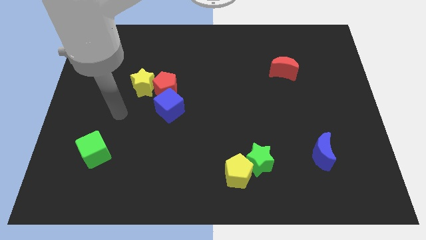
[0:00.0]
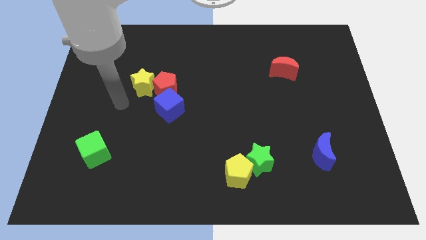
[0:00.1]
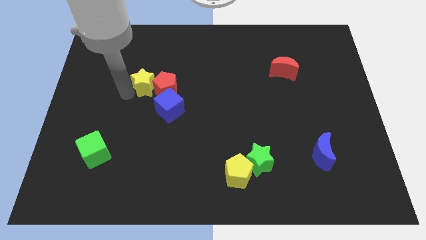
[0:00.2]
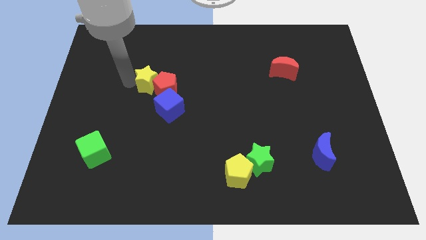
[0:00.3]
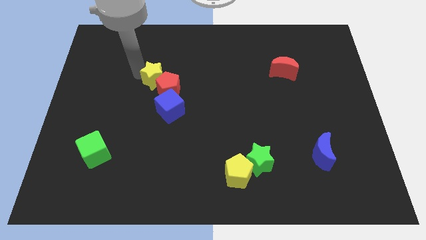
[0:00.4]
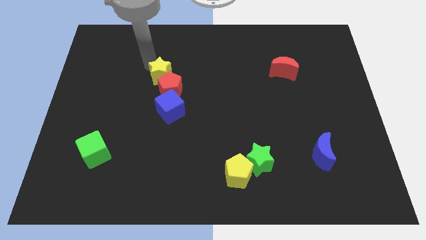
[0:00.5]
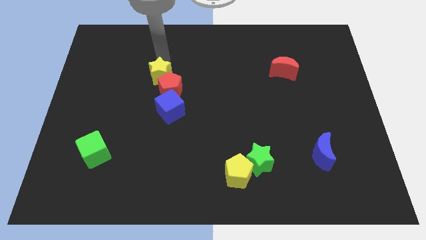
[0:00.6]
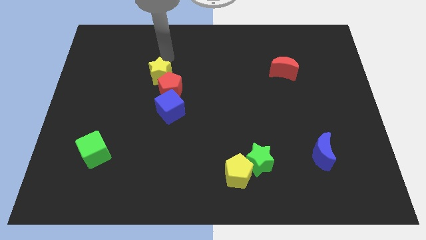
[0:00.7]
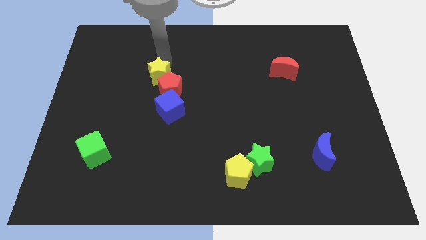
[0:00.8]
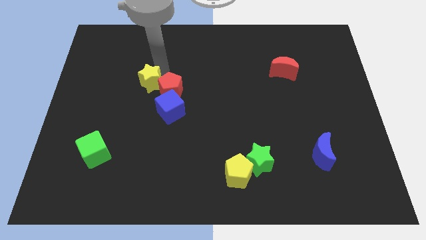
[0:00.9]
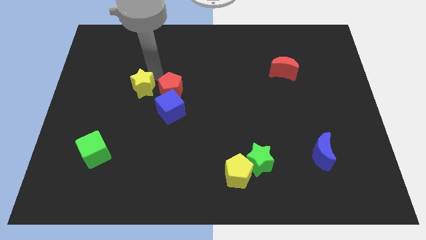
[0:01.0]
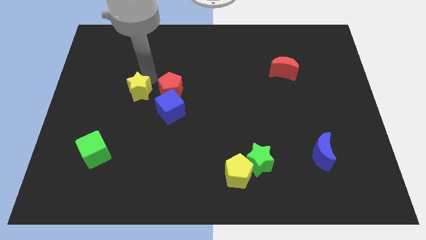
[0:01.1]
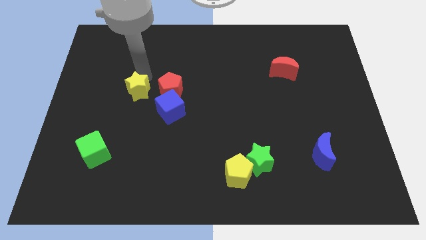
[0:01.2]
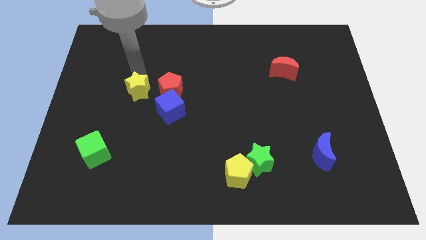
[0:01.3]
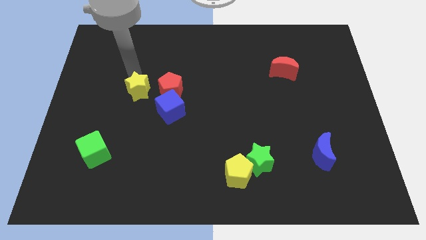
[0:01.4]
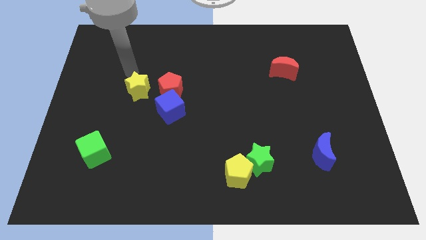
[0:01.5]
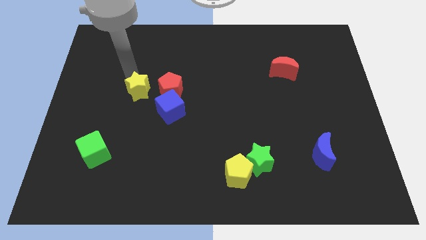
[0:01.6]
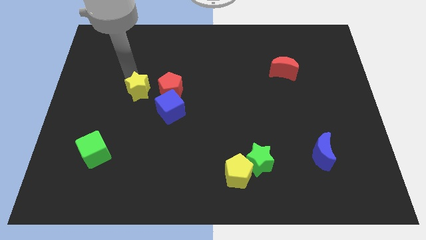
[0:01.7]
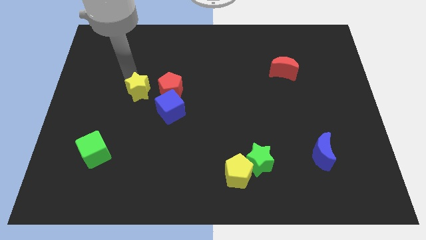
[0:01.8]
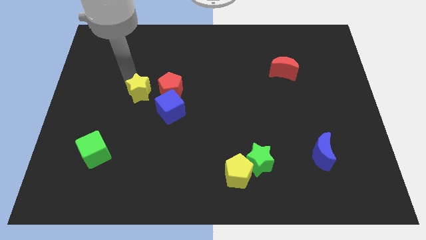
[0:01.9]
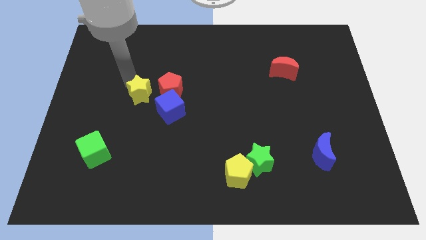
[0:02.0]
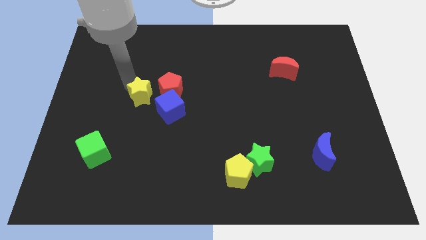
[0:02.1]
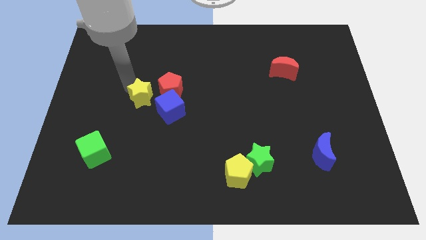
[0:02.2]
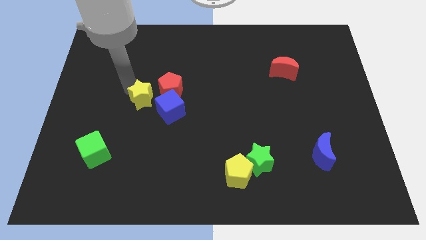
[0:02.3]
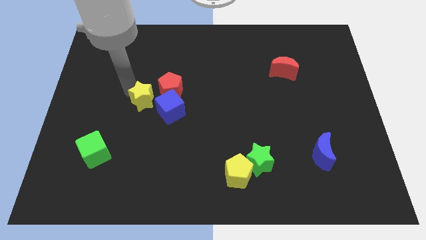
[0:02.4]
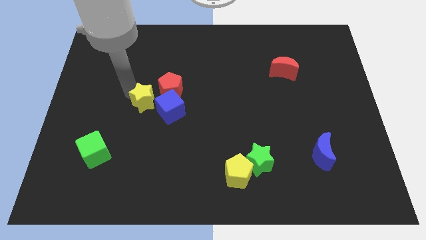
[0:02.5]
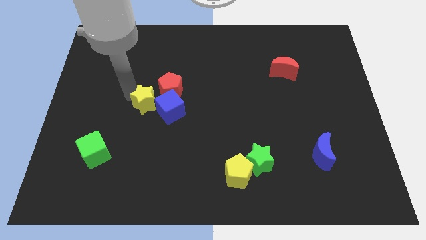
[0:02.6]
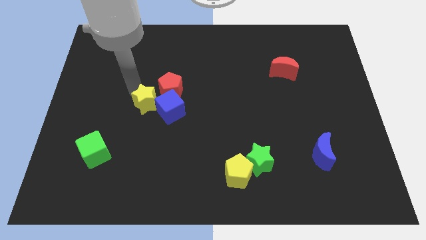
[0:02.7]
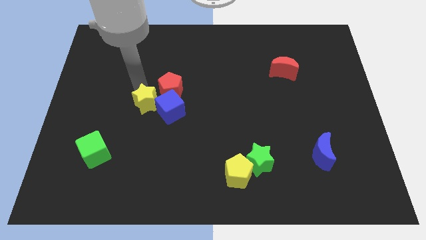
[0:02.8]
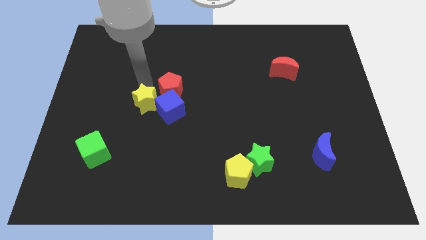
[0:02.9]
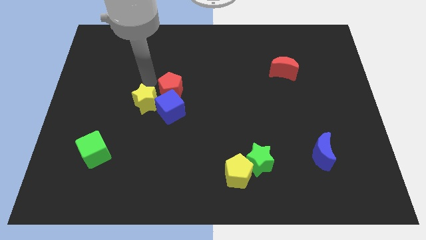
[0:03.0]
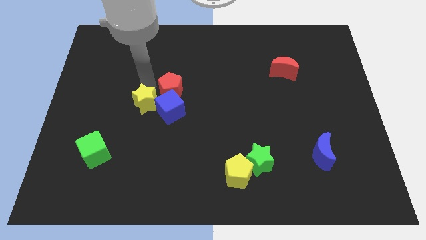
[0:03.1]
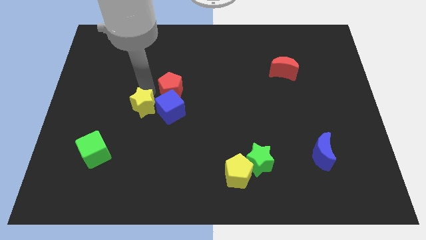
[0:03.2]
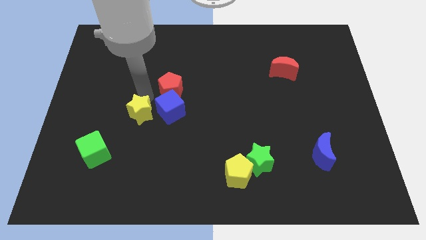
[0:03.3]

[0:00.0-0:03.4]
move the yellow star a little downwards

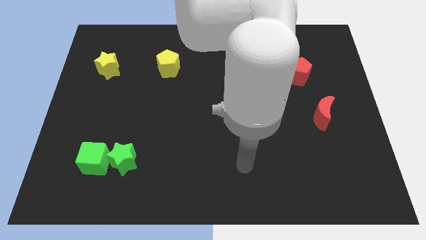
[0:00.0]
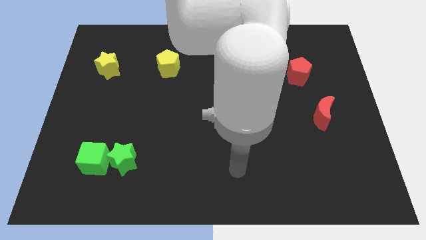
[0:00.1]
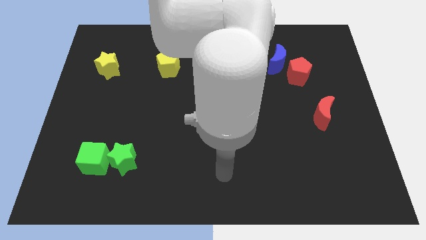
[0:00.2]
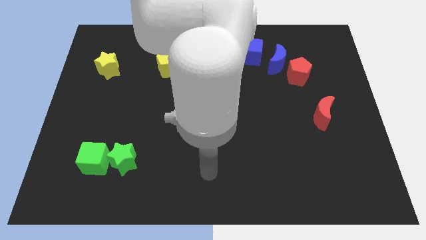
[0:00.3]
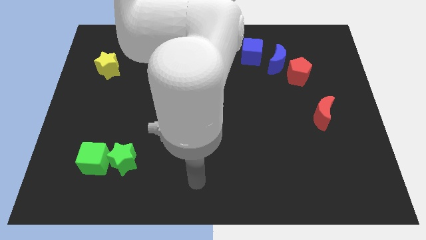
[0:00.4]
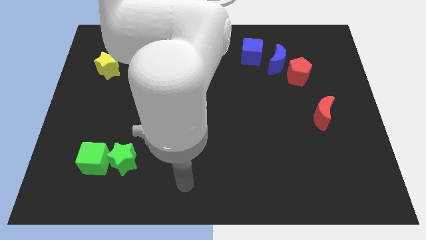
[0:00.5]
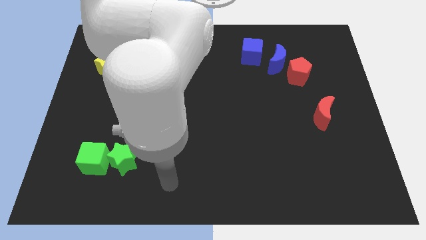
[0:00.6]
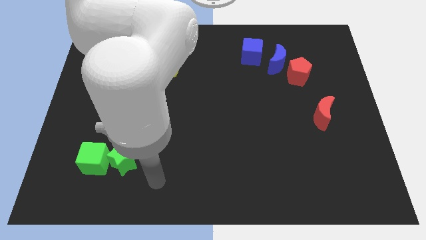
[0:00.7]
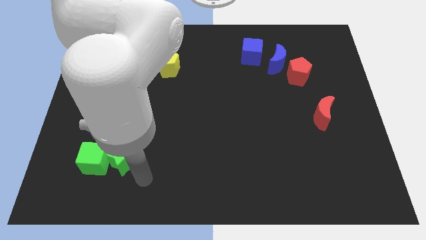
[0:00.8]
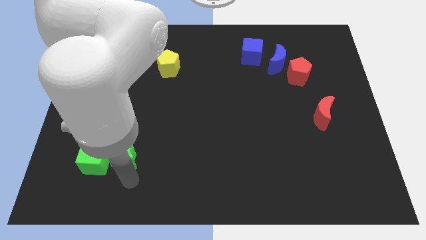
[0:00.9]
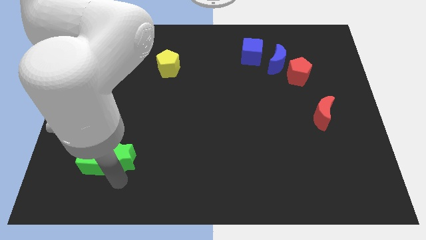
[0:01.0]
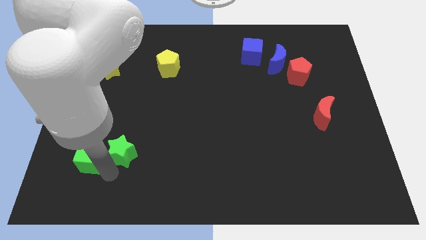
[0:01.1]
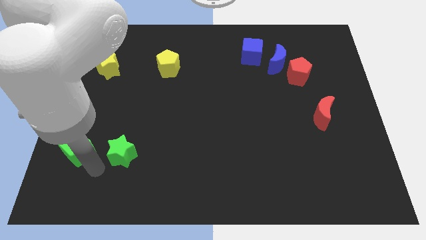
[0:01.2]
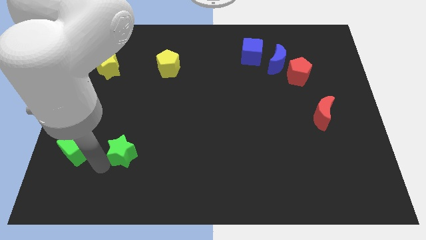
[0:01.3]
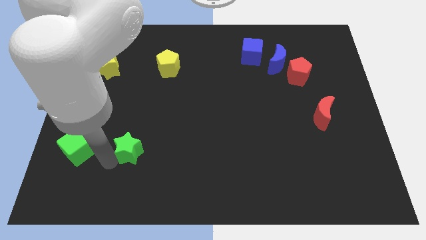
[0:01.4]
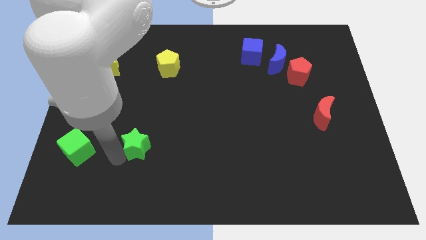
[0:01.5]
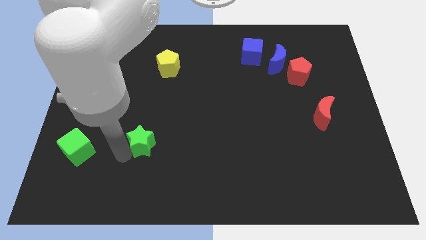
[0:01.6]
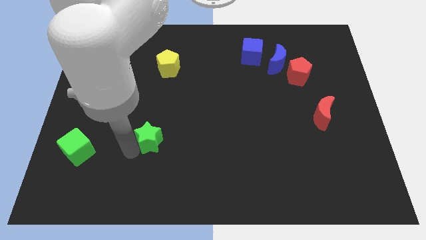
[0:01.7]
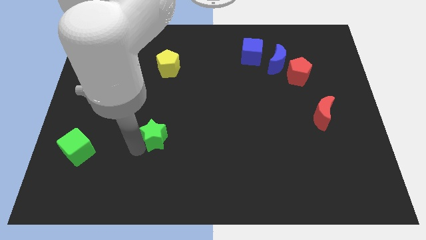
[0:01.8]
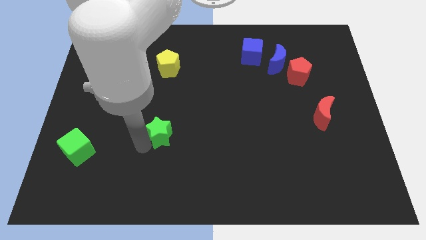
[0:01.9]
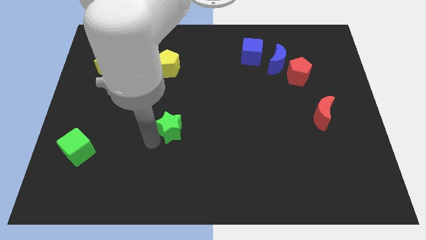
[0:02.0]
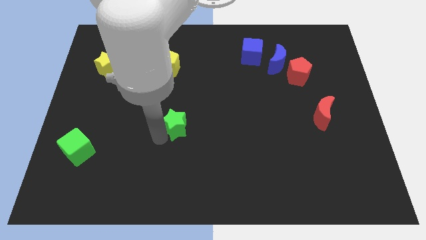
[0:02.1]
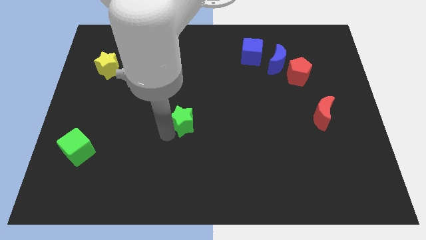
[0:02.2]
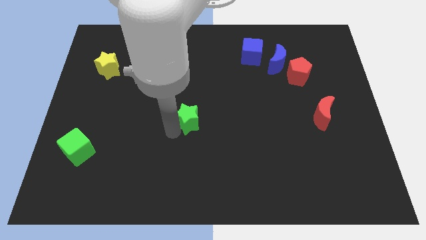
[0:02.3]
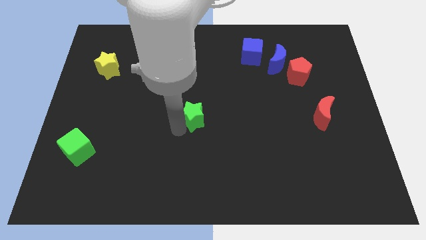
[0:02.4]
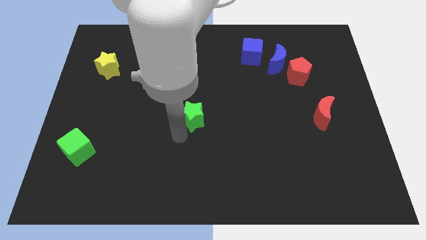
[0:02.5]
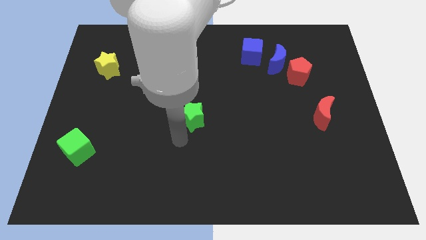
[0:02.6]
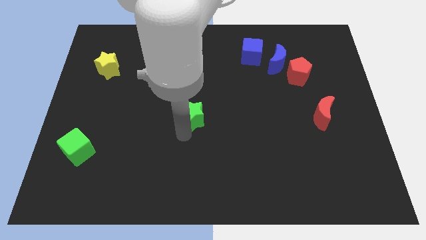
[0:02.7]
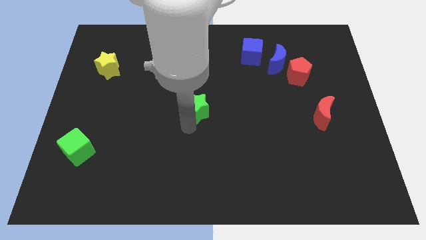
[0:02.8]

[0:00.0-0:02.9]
move the green star diagonally upwards and to the right

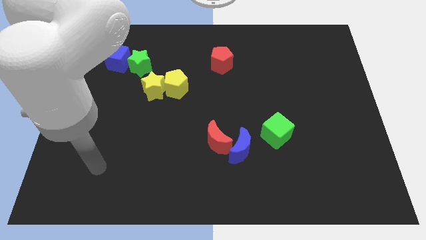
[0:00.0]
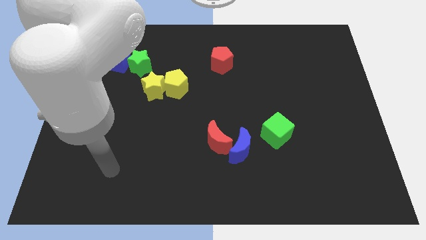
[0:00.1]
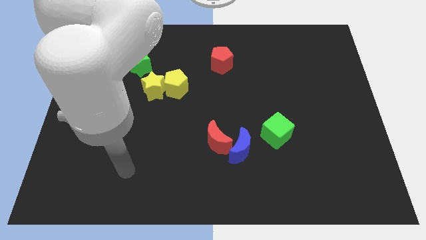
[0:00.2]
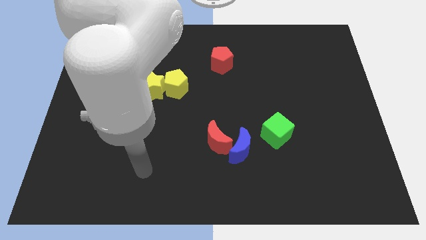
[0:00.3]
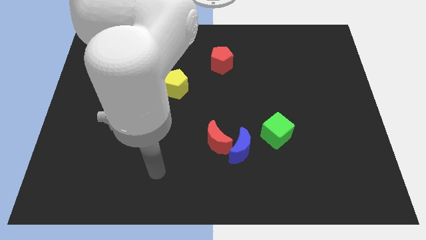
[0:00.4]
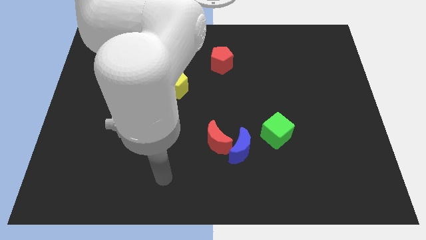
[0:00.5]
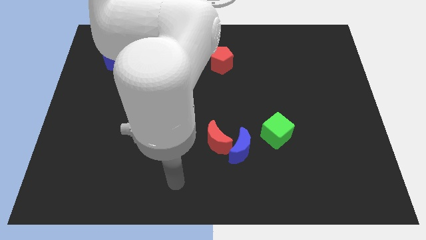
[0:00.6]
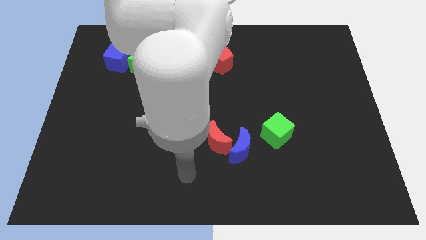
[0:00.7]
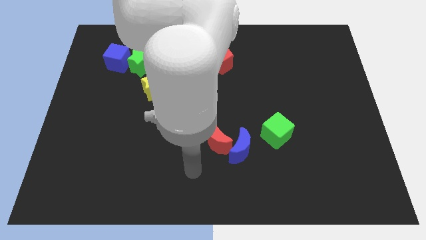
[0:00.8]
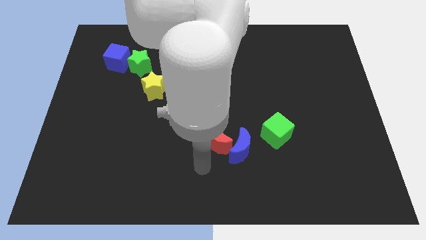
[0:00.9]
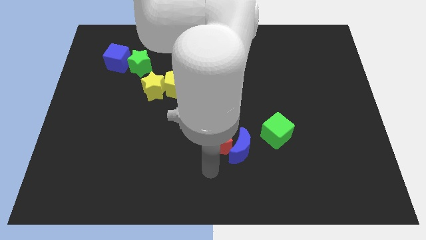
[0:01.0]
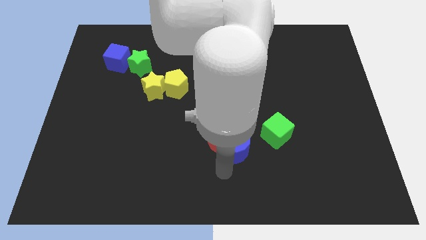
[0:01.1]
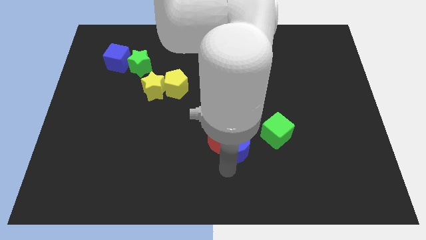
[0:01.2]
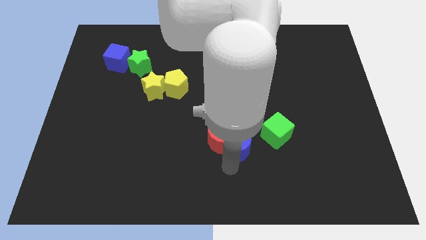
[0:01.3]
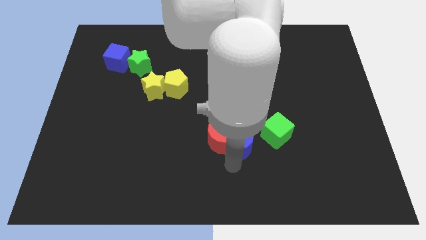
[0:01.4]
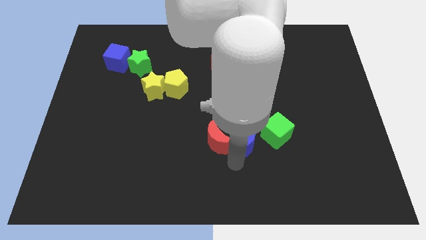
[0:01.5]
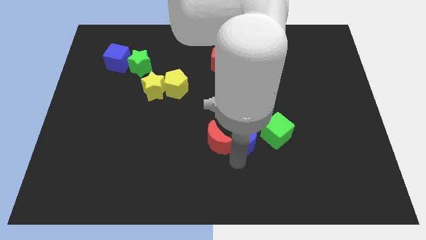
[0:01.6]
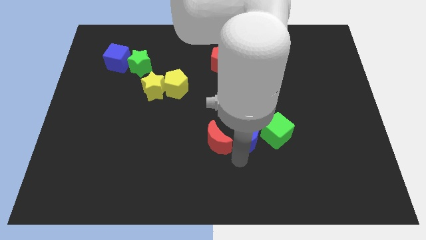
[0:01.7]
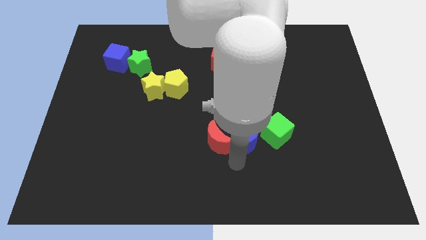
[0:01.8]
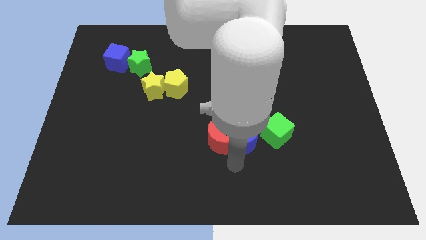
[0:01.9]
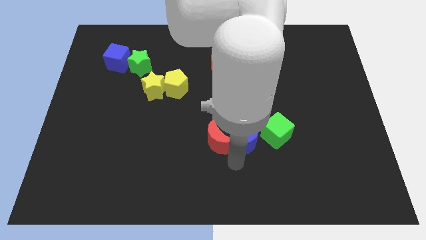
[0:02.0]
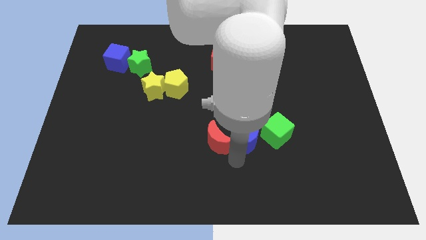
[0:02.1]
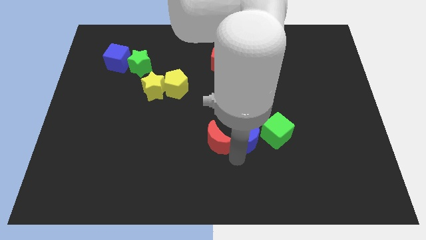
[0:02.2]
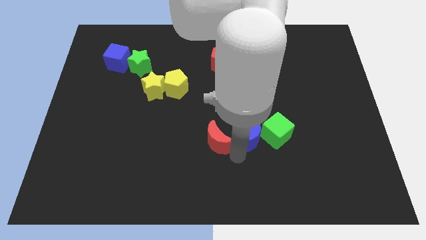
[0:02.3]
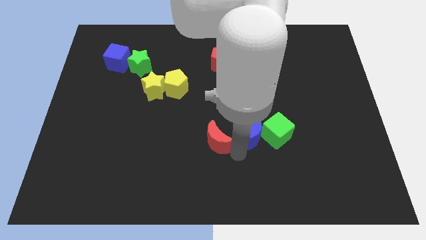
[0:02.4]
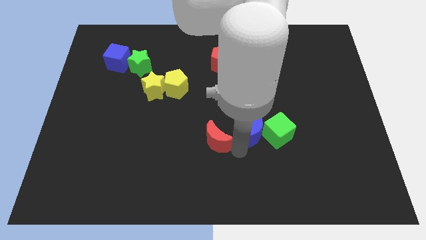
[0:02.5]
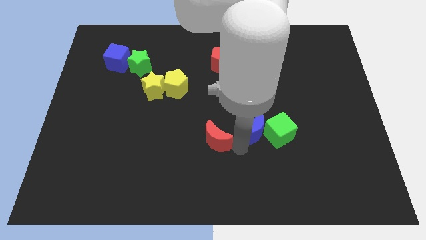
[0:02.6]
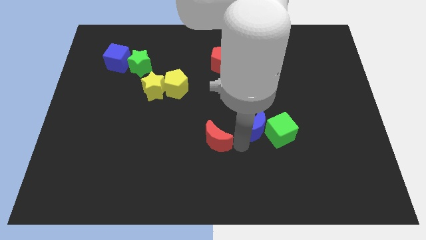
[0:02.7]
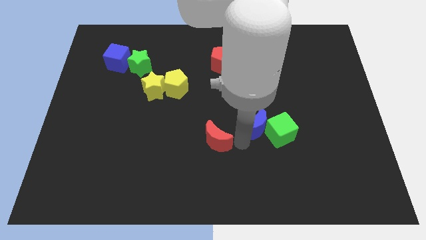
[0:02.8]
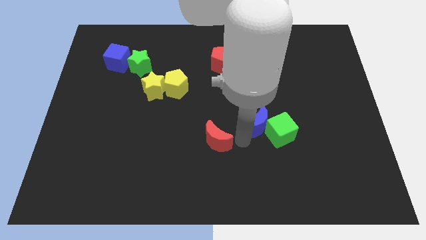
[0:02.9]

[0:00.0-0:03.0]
push the blue moon up and right a little
